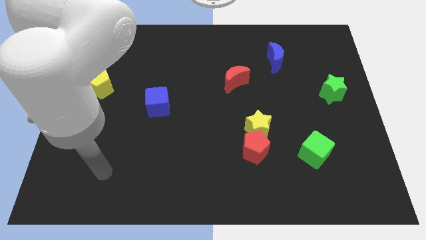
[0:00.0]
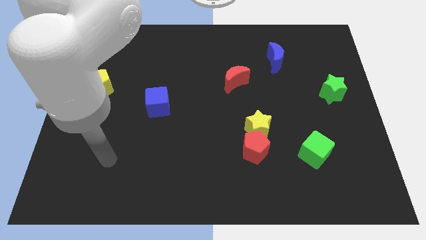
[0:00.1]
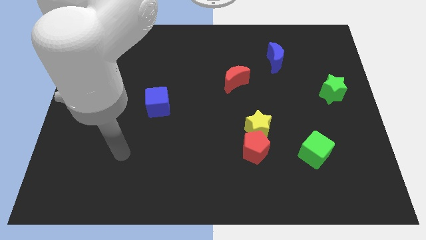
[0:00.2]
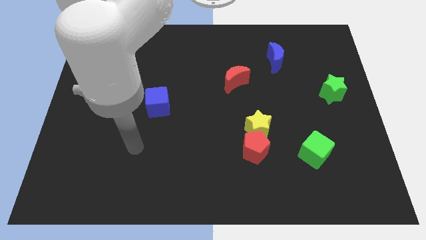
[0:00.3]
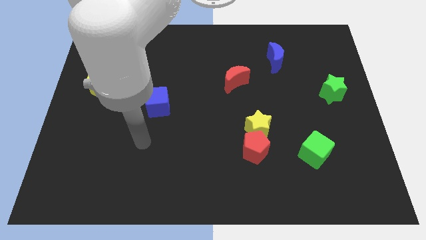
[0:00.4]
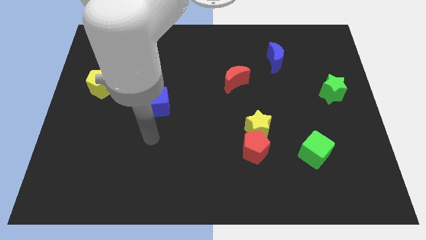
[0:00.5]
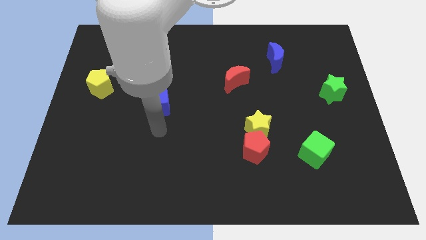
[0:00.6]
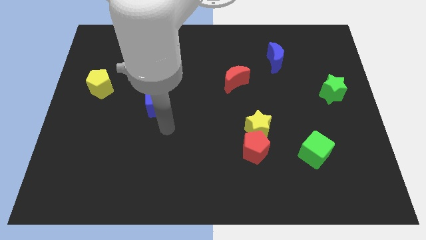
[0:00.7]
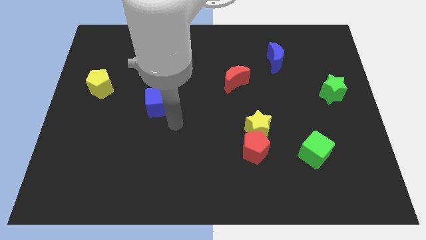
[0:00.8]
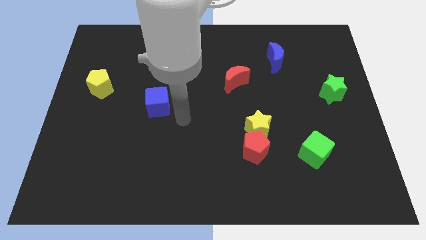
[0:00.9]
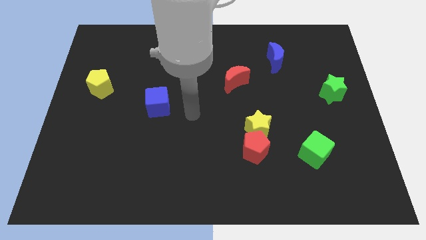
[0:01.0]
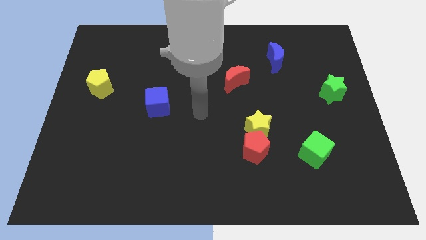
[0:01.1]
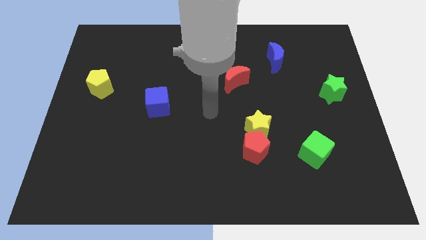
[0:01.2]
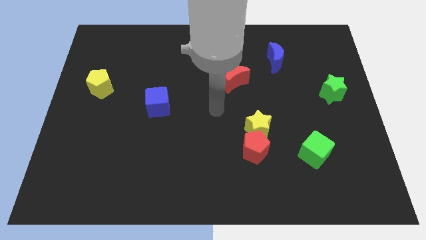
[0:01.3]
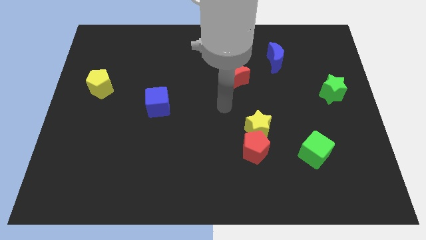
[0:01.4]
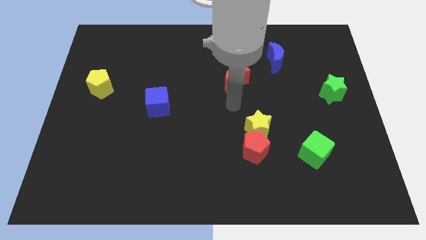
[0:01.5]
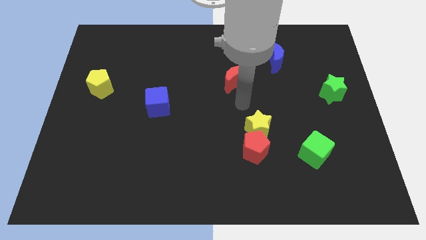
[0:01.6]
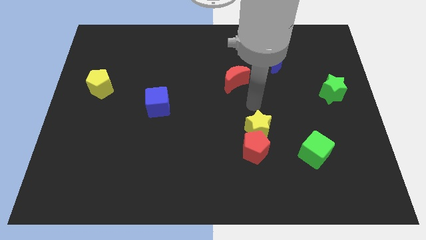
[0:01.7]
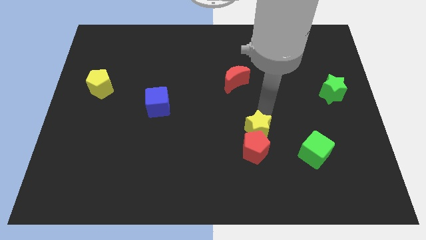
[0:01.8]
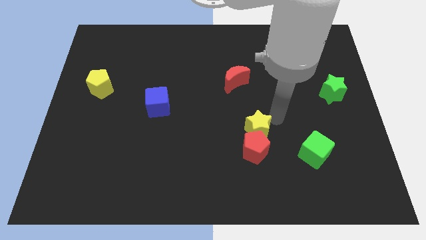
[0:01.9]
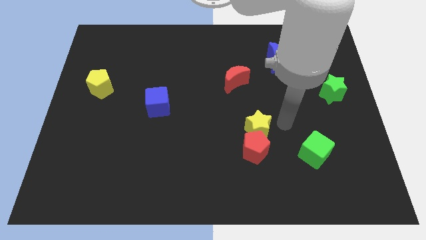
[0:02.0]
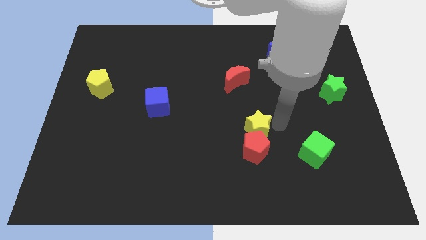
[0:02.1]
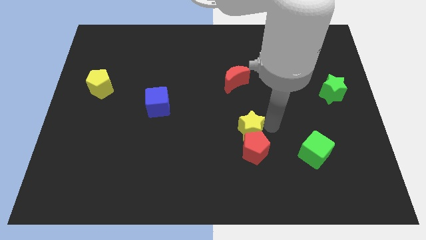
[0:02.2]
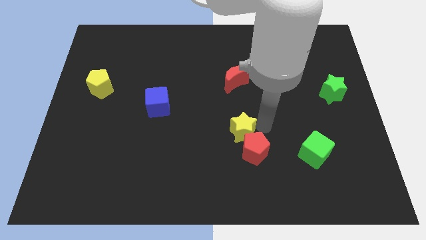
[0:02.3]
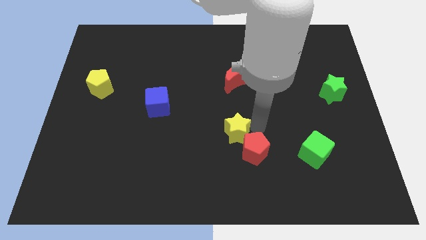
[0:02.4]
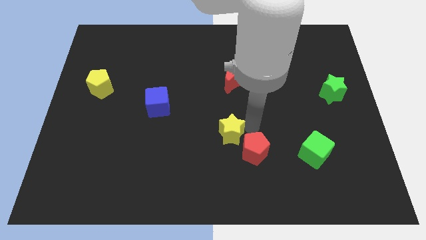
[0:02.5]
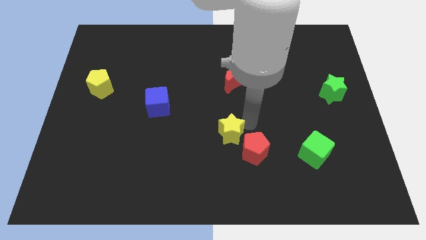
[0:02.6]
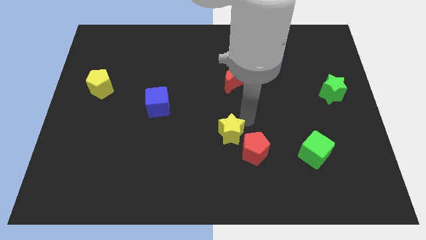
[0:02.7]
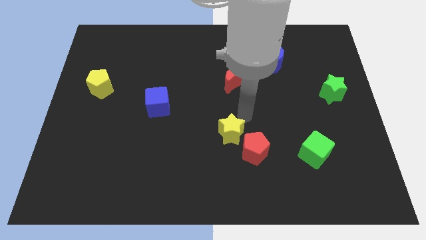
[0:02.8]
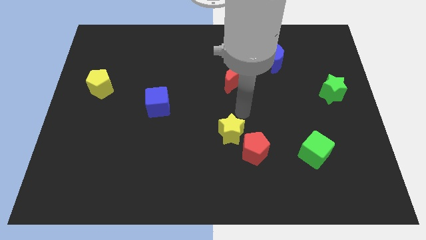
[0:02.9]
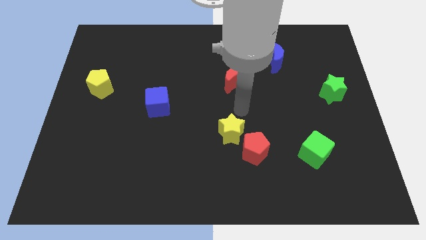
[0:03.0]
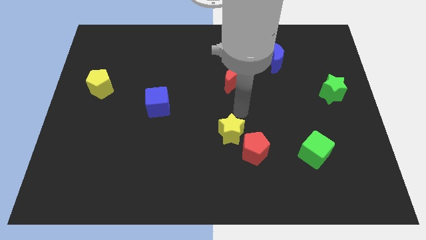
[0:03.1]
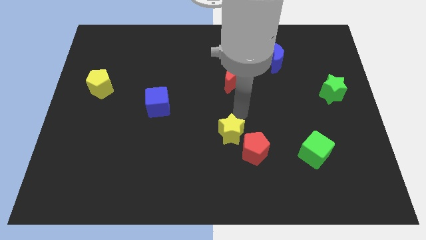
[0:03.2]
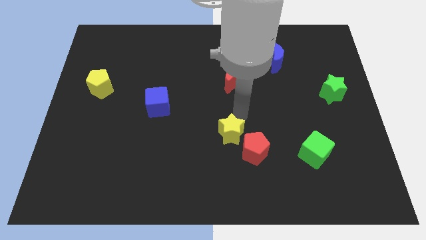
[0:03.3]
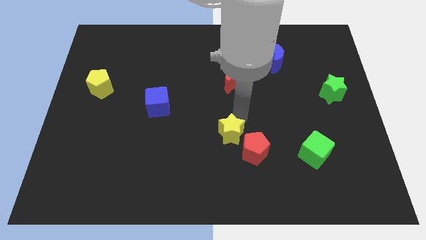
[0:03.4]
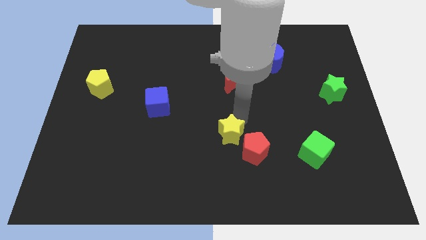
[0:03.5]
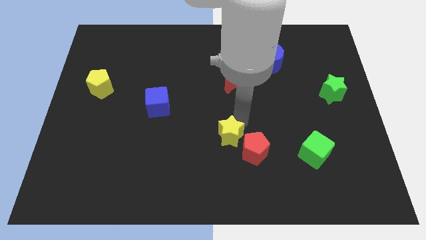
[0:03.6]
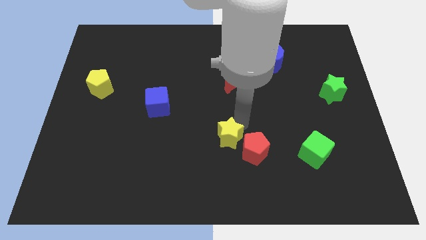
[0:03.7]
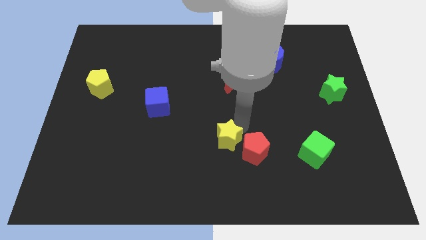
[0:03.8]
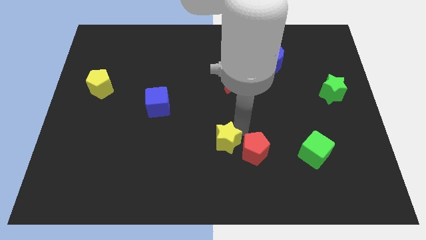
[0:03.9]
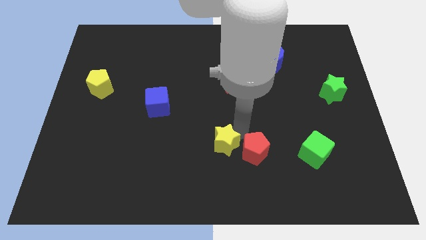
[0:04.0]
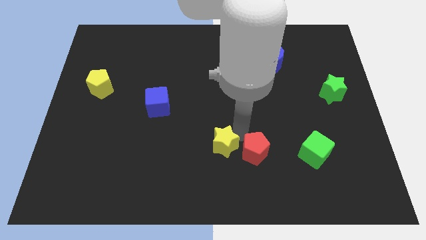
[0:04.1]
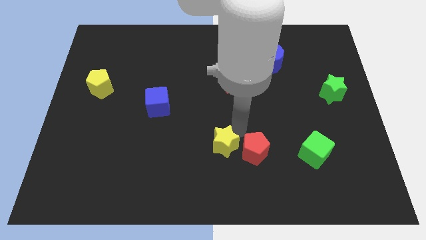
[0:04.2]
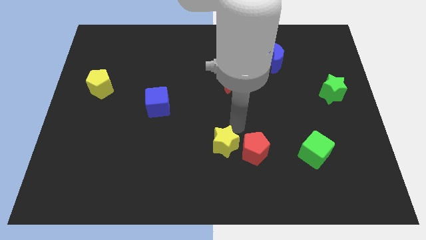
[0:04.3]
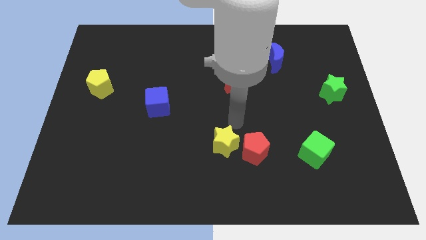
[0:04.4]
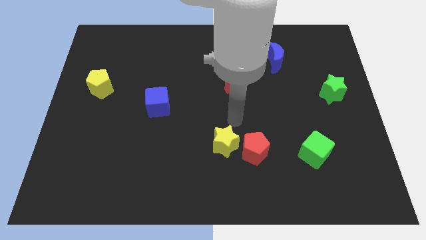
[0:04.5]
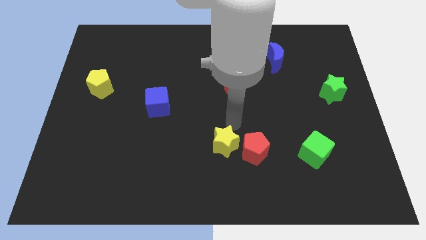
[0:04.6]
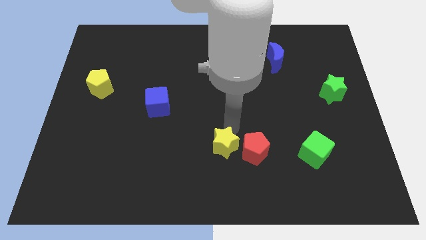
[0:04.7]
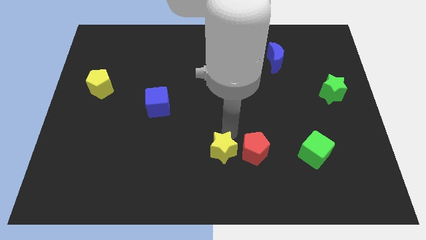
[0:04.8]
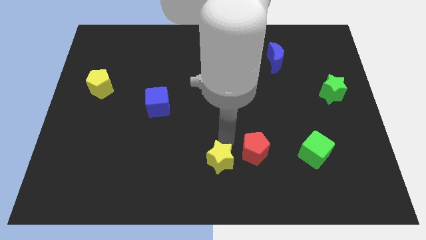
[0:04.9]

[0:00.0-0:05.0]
put the yellow star to the bottom

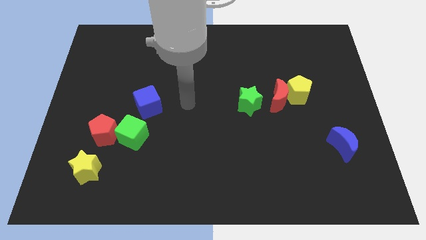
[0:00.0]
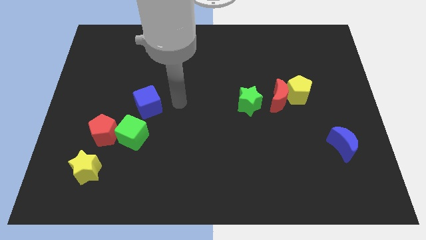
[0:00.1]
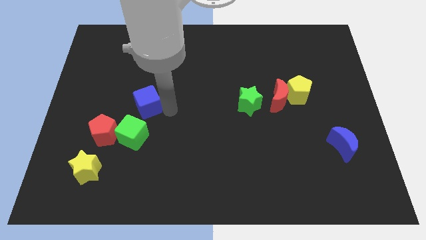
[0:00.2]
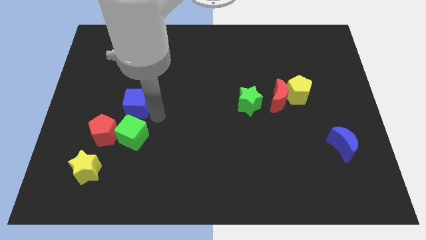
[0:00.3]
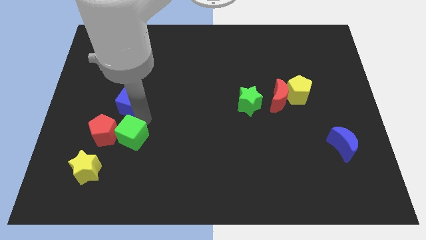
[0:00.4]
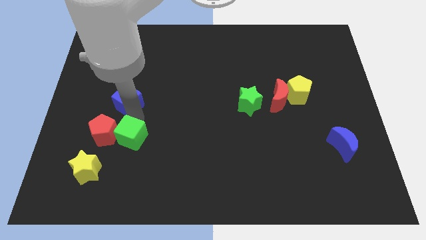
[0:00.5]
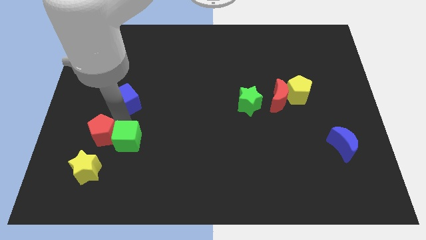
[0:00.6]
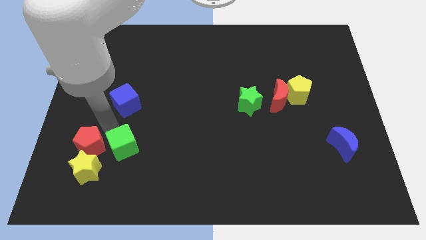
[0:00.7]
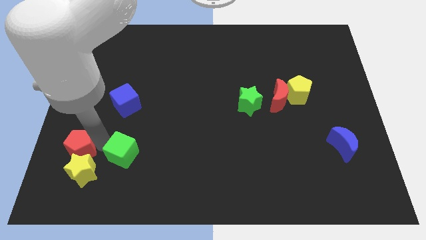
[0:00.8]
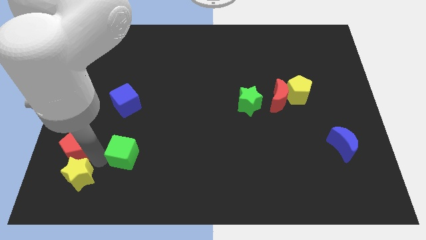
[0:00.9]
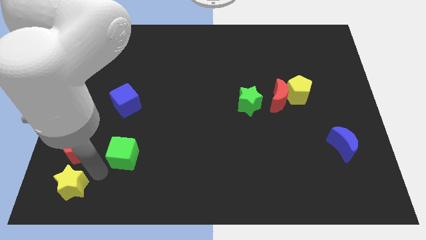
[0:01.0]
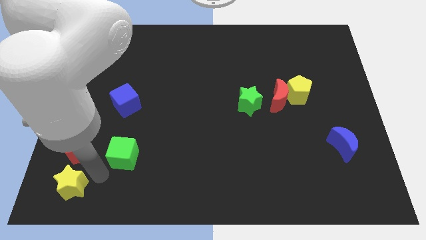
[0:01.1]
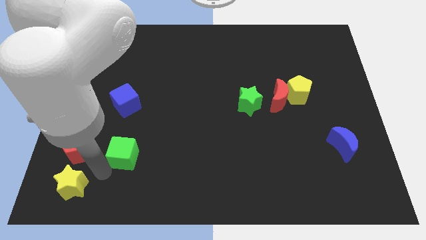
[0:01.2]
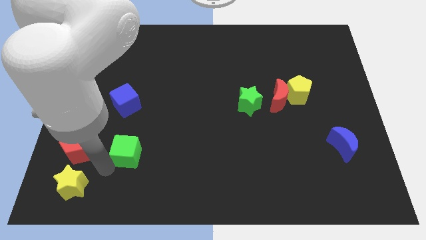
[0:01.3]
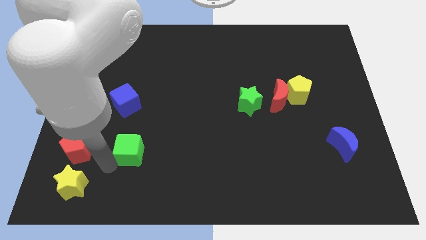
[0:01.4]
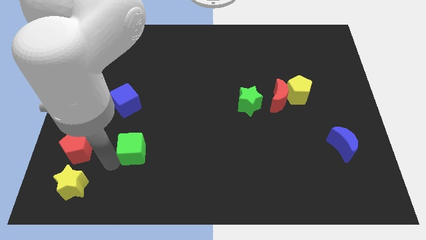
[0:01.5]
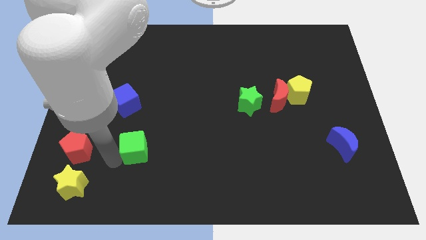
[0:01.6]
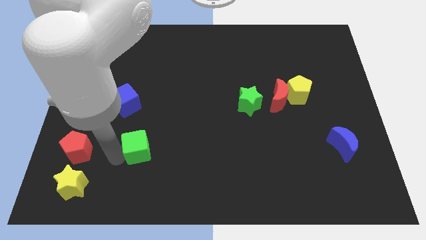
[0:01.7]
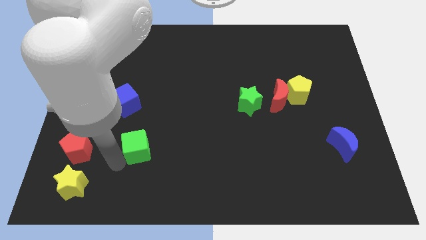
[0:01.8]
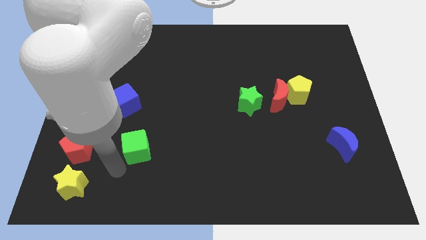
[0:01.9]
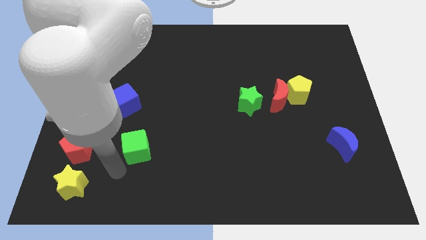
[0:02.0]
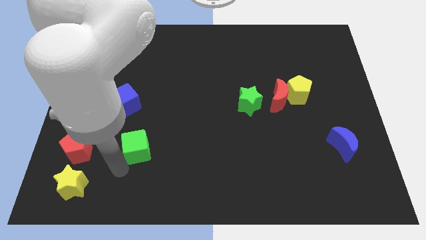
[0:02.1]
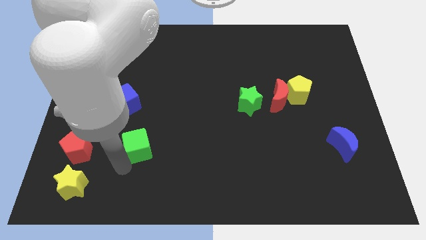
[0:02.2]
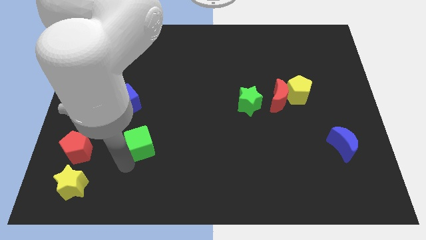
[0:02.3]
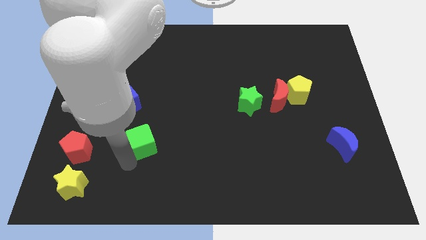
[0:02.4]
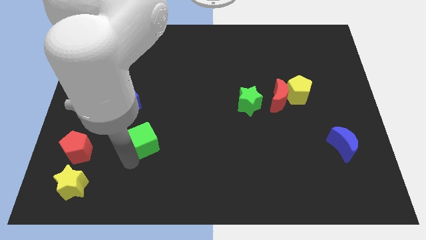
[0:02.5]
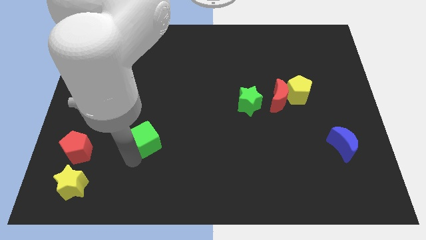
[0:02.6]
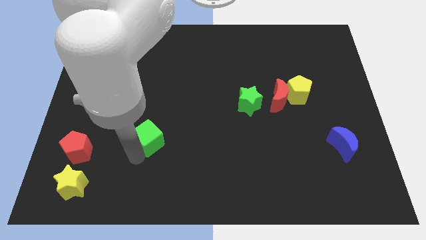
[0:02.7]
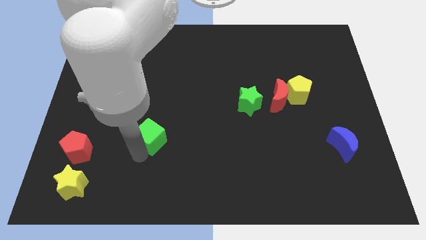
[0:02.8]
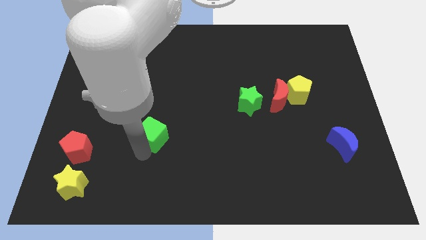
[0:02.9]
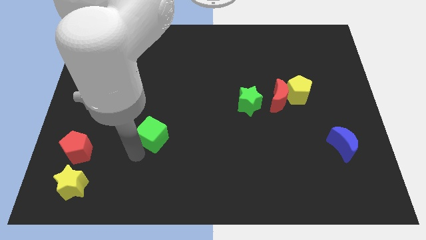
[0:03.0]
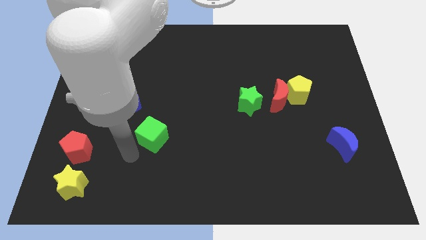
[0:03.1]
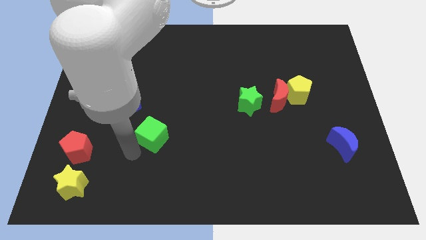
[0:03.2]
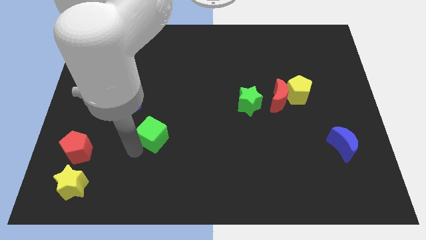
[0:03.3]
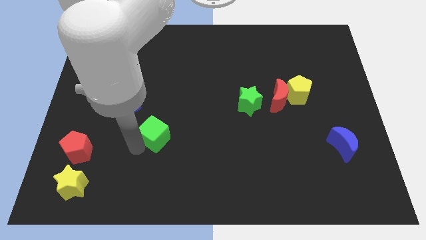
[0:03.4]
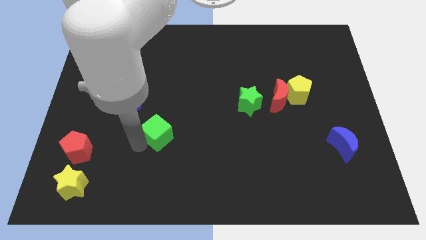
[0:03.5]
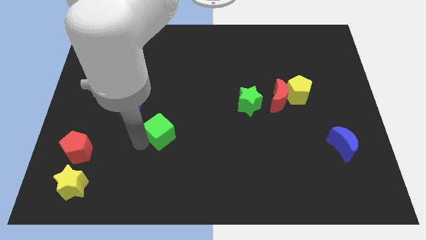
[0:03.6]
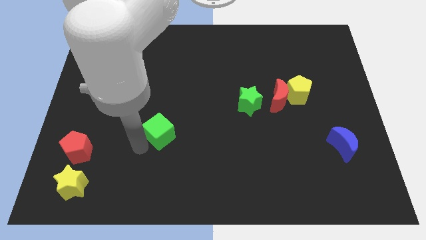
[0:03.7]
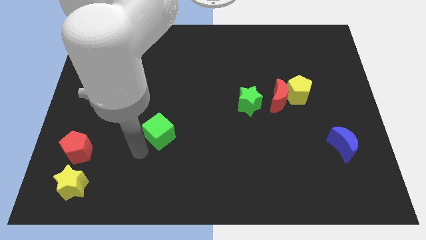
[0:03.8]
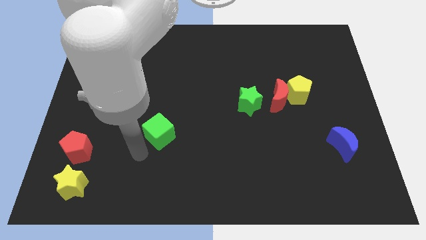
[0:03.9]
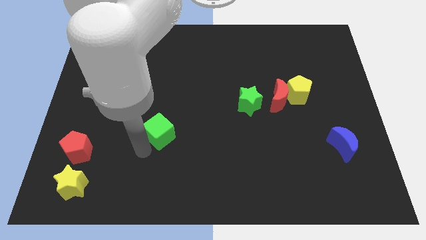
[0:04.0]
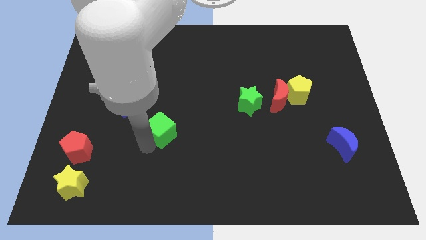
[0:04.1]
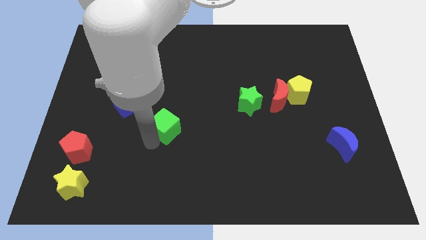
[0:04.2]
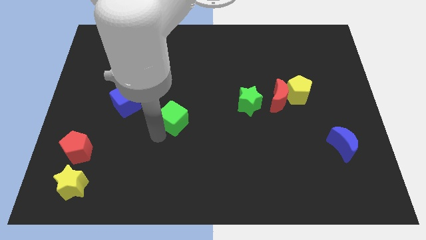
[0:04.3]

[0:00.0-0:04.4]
put the green cube to the middle of the board
